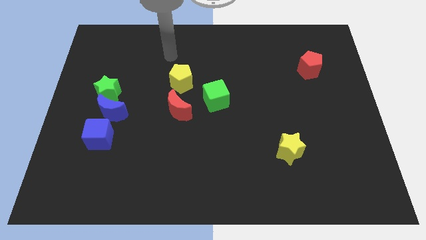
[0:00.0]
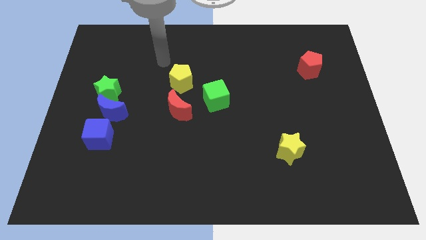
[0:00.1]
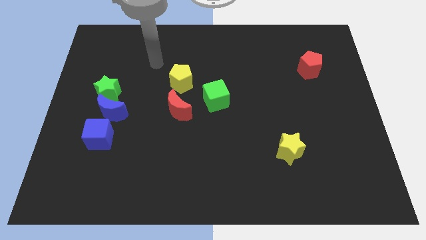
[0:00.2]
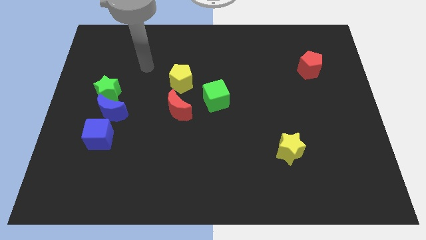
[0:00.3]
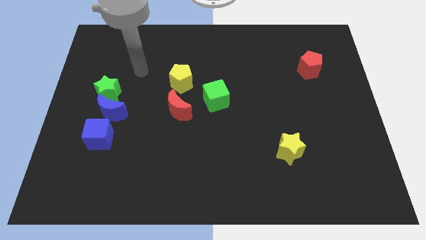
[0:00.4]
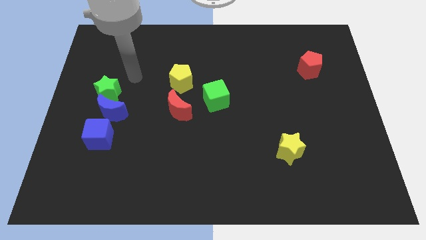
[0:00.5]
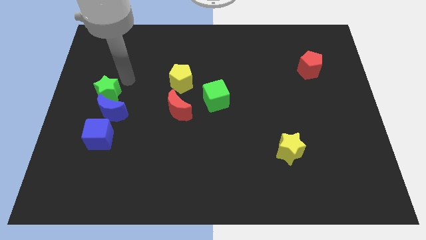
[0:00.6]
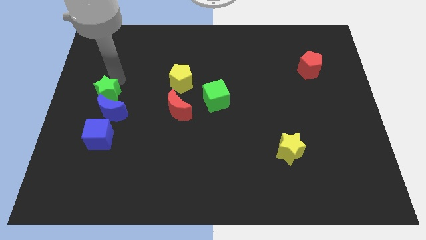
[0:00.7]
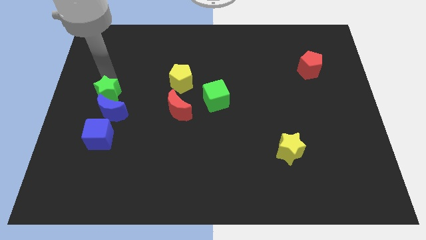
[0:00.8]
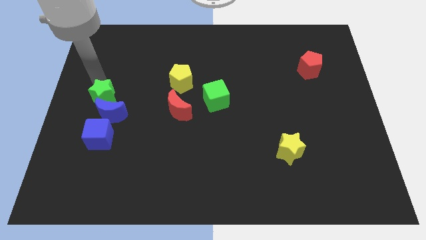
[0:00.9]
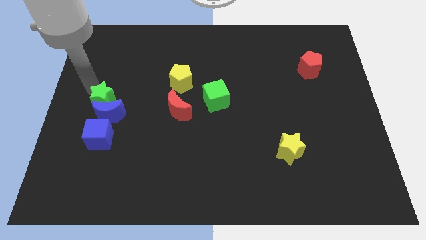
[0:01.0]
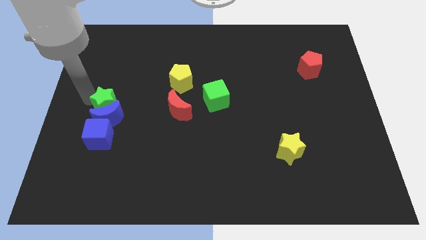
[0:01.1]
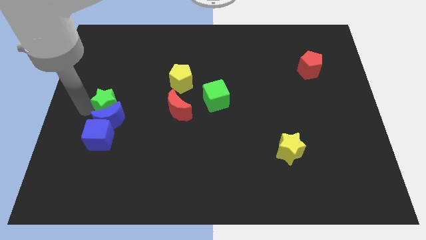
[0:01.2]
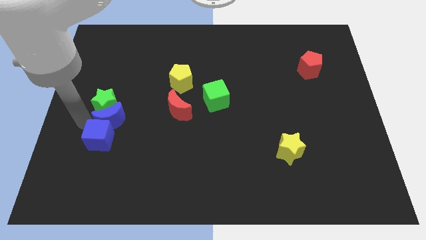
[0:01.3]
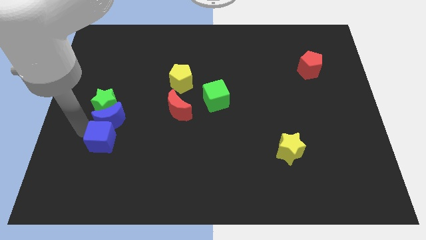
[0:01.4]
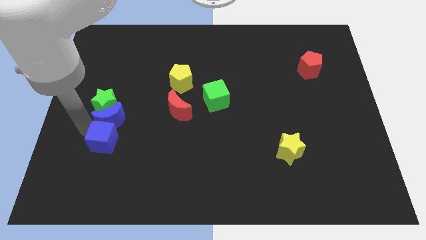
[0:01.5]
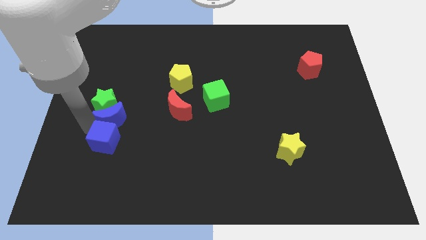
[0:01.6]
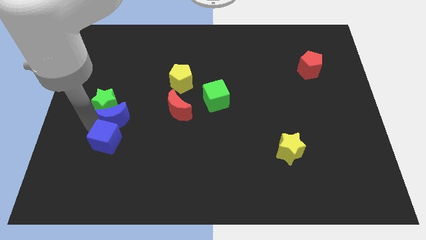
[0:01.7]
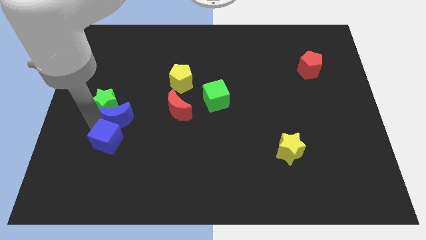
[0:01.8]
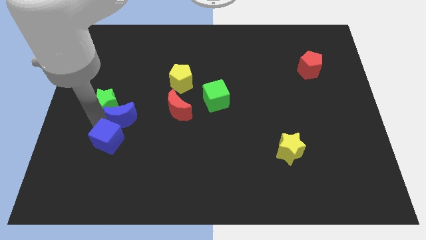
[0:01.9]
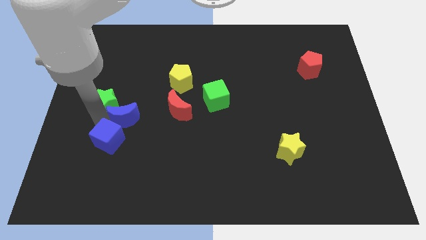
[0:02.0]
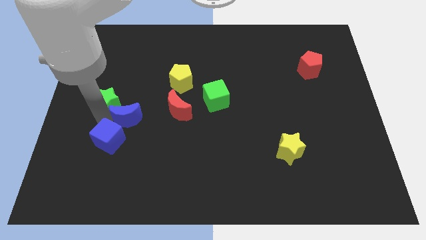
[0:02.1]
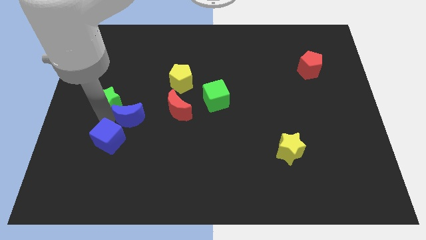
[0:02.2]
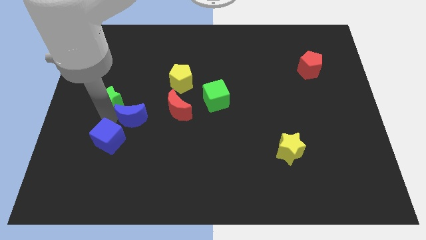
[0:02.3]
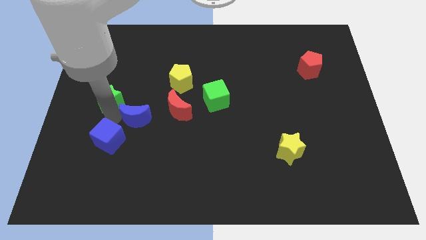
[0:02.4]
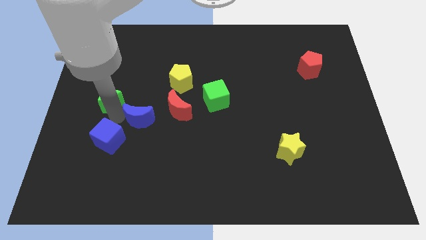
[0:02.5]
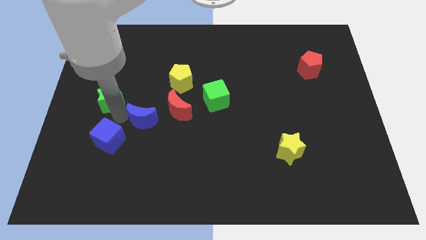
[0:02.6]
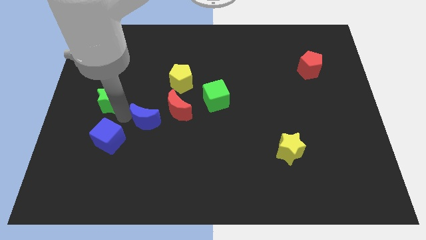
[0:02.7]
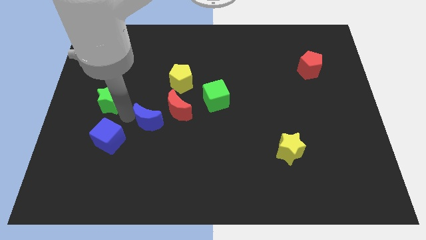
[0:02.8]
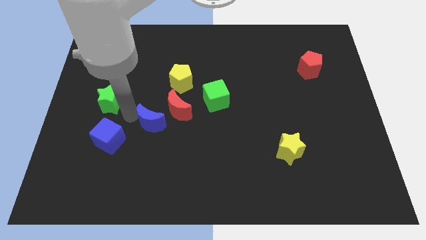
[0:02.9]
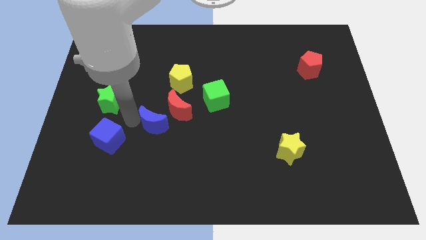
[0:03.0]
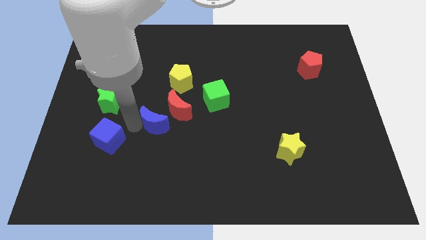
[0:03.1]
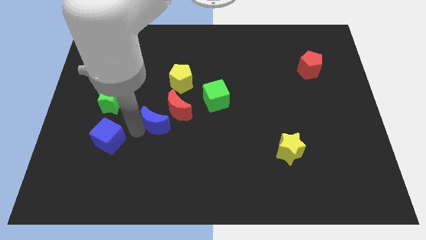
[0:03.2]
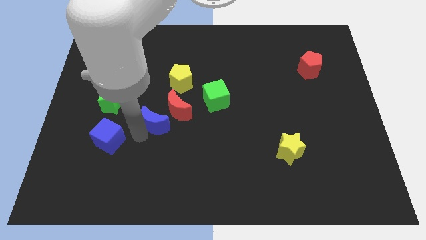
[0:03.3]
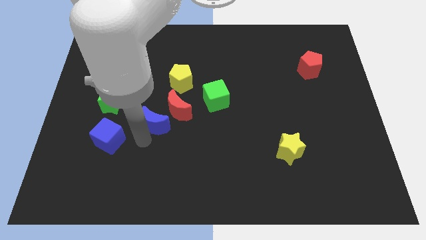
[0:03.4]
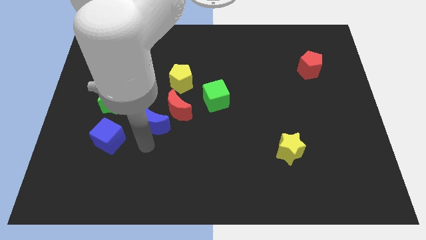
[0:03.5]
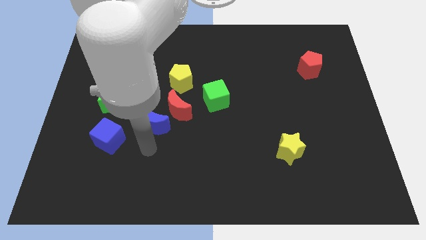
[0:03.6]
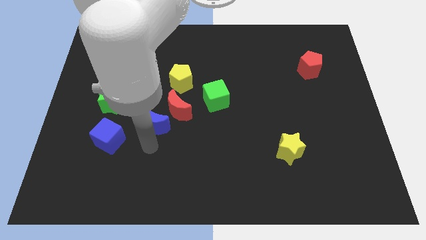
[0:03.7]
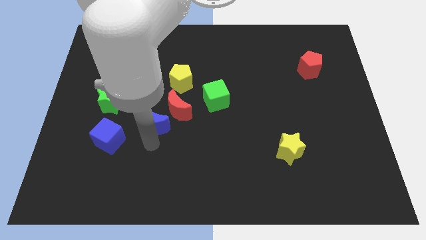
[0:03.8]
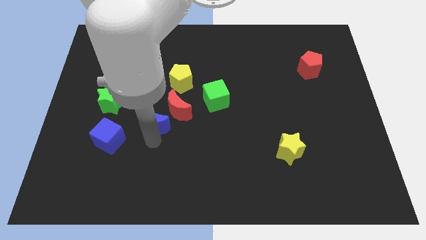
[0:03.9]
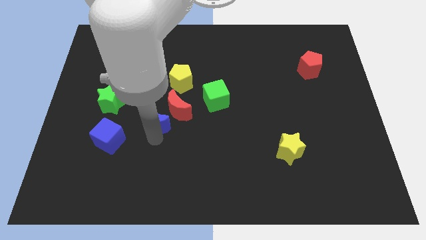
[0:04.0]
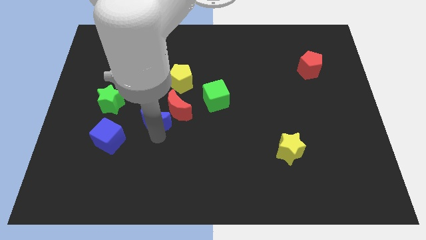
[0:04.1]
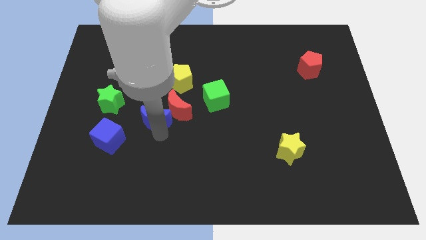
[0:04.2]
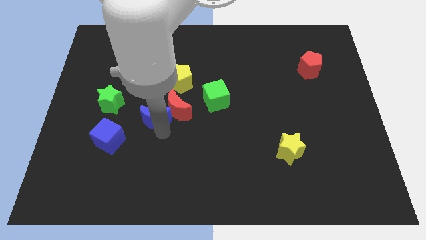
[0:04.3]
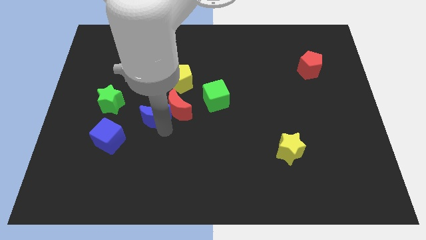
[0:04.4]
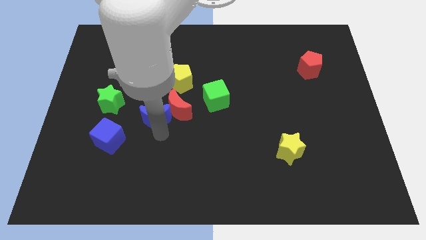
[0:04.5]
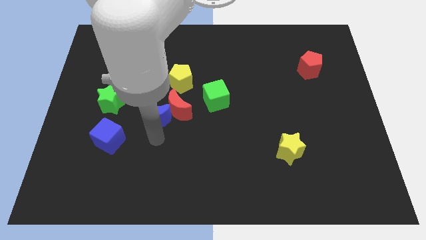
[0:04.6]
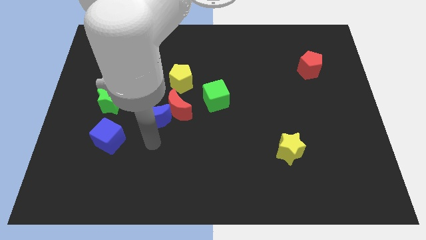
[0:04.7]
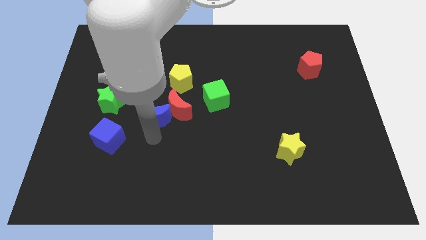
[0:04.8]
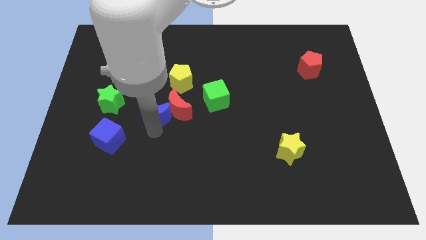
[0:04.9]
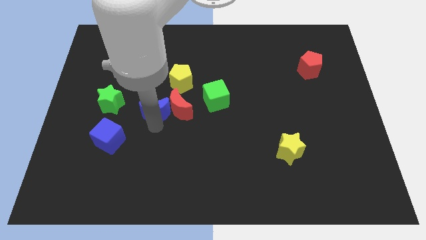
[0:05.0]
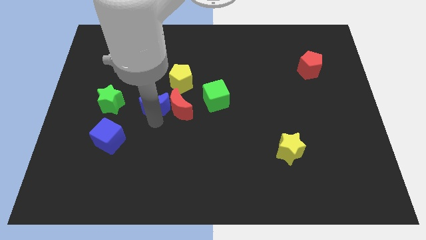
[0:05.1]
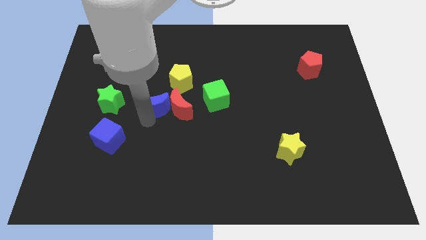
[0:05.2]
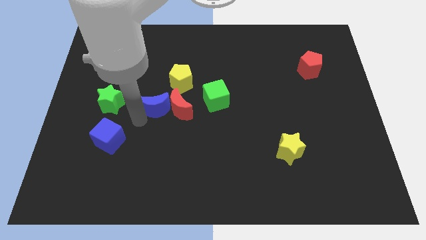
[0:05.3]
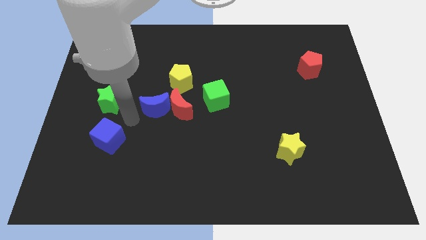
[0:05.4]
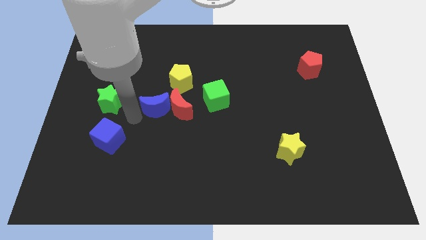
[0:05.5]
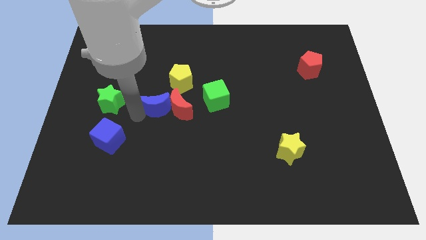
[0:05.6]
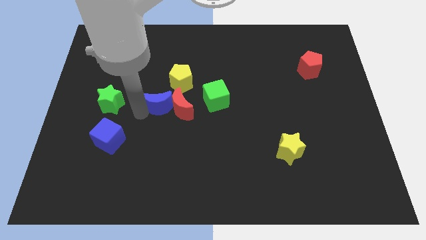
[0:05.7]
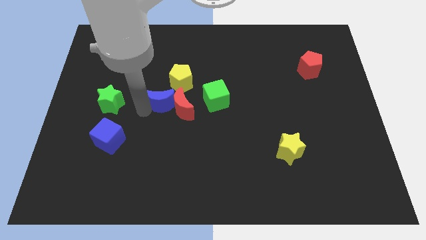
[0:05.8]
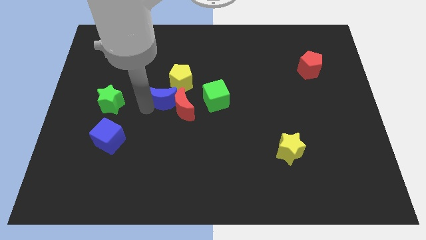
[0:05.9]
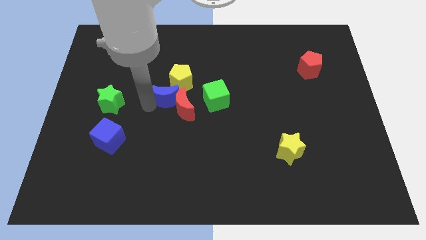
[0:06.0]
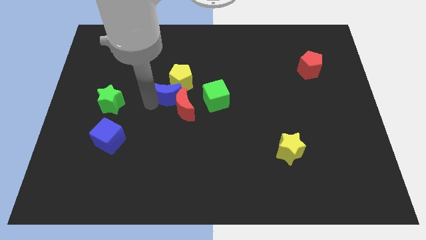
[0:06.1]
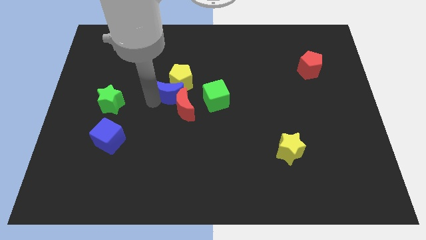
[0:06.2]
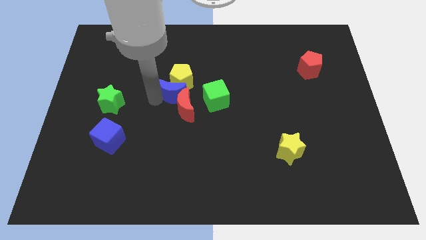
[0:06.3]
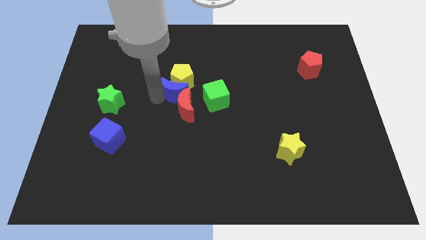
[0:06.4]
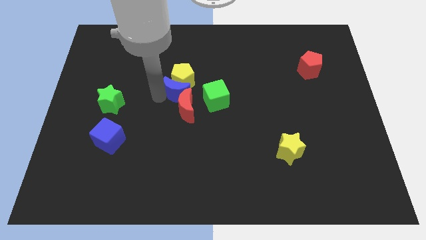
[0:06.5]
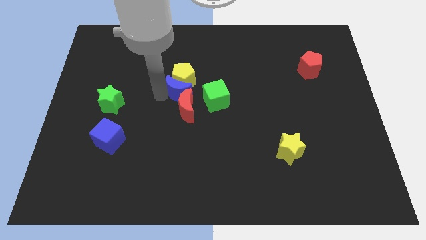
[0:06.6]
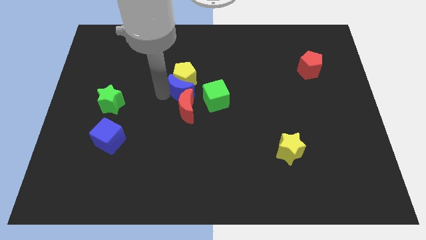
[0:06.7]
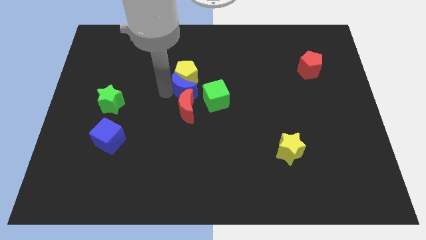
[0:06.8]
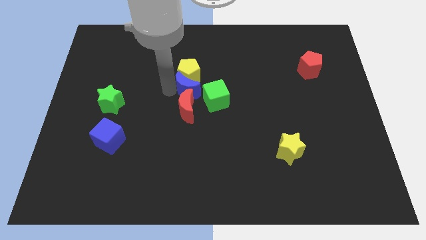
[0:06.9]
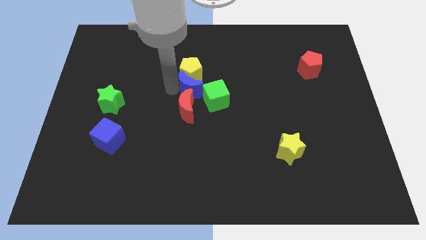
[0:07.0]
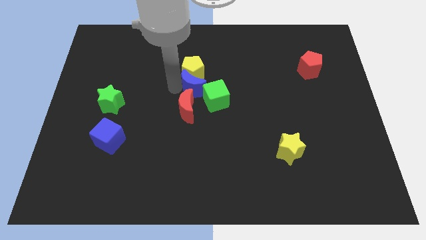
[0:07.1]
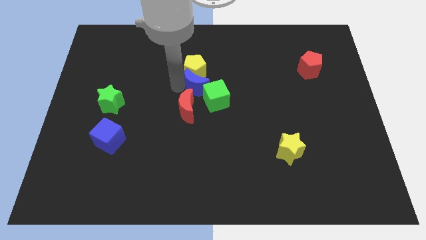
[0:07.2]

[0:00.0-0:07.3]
move the blue moon close to the green cube
